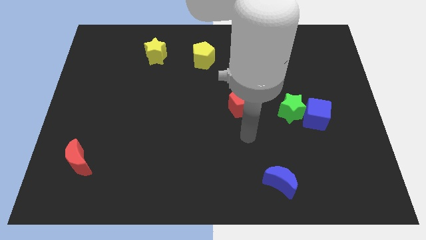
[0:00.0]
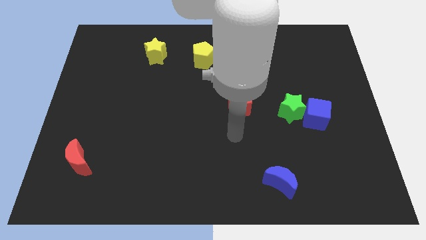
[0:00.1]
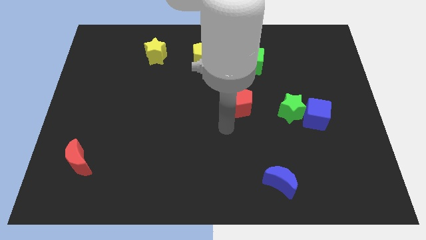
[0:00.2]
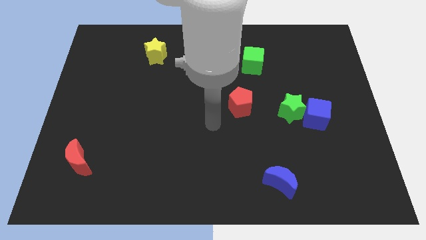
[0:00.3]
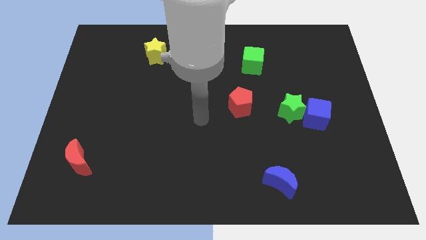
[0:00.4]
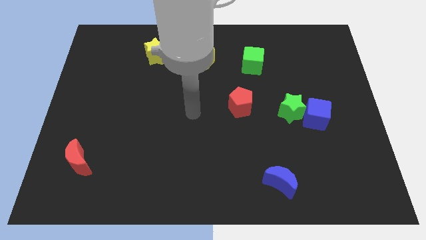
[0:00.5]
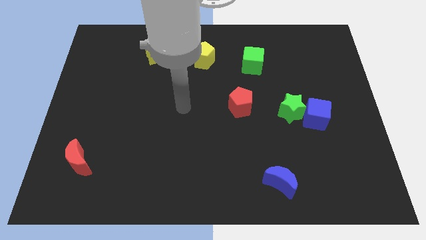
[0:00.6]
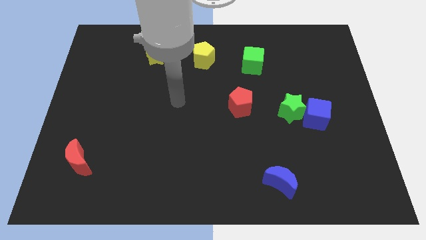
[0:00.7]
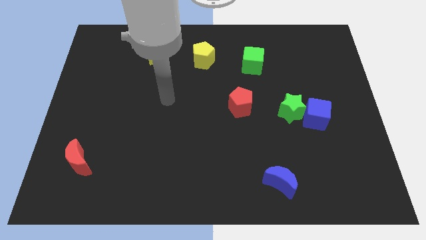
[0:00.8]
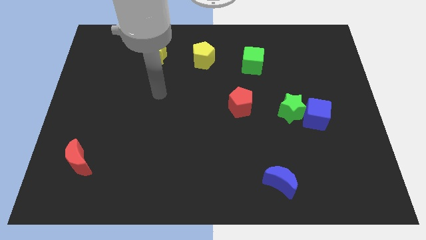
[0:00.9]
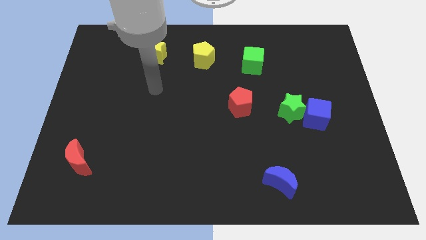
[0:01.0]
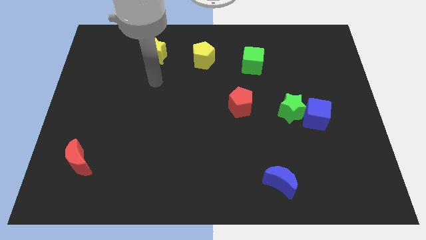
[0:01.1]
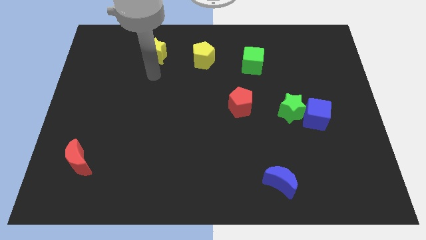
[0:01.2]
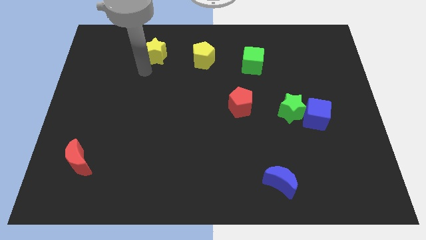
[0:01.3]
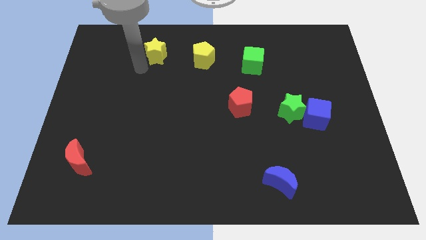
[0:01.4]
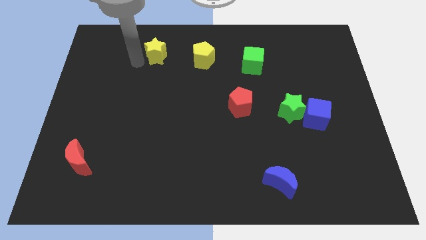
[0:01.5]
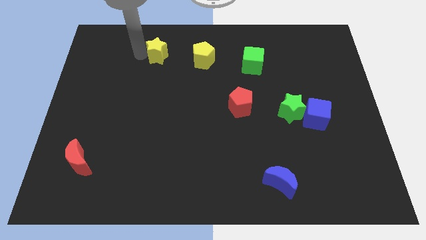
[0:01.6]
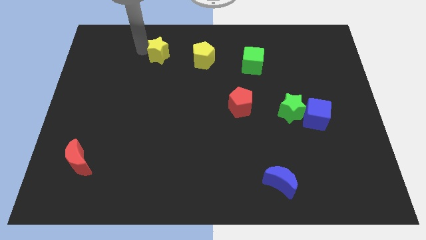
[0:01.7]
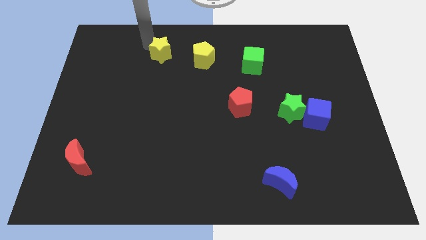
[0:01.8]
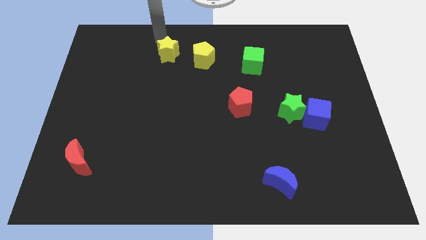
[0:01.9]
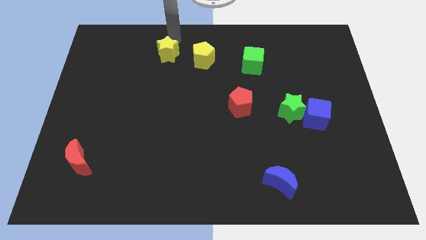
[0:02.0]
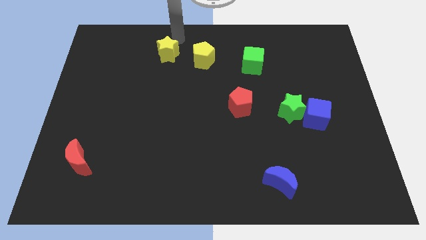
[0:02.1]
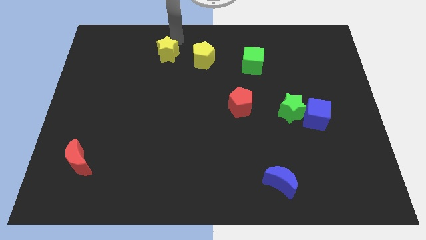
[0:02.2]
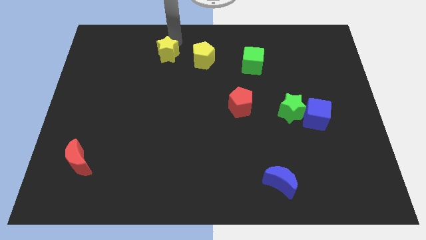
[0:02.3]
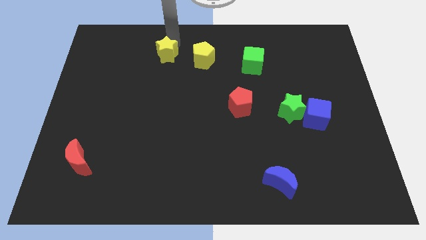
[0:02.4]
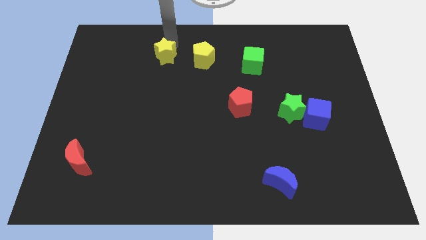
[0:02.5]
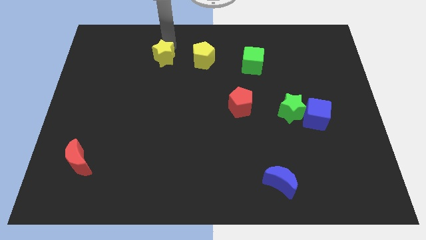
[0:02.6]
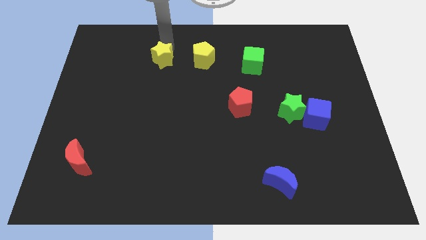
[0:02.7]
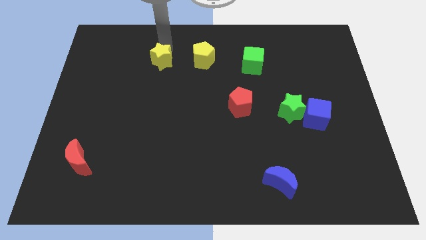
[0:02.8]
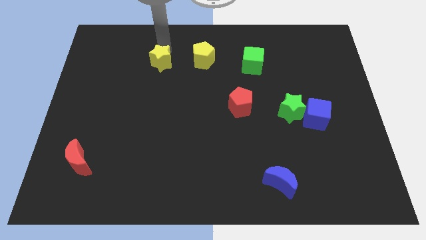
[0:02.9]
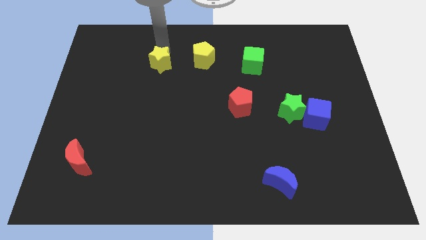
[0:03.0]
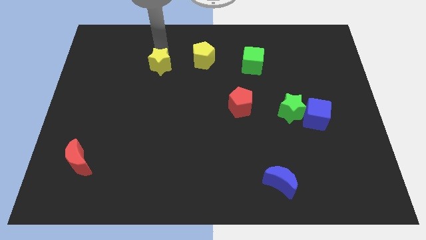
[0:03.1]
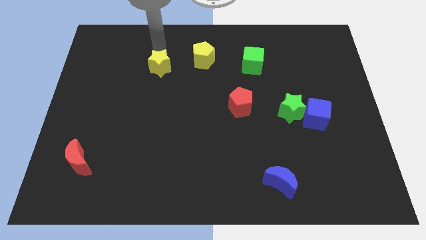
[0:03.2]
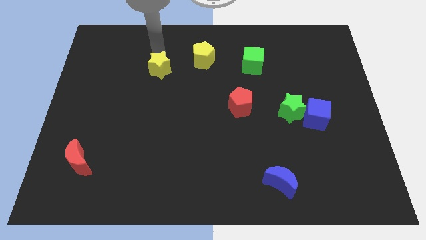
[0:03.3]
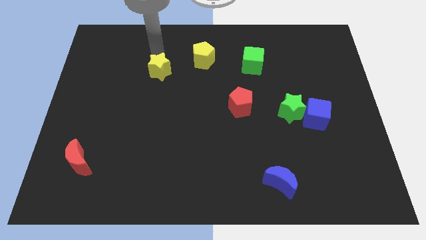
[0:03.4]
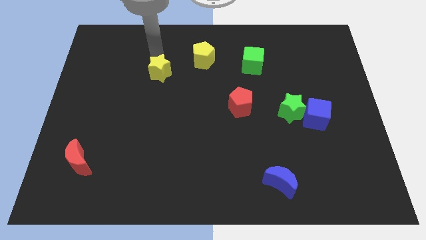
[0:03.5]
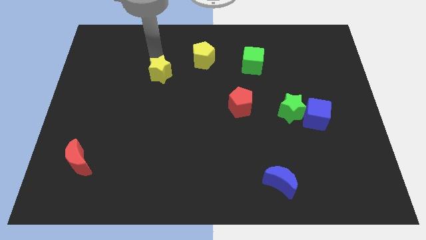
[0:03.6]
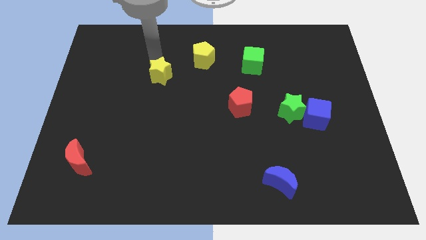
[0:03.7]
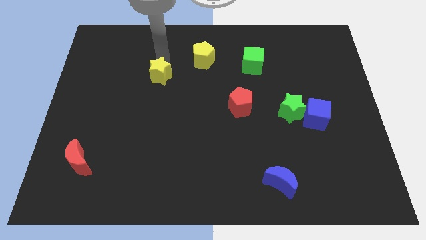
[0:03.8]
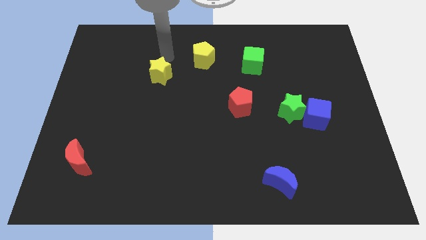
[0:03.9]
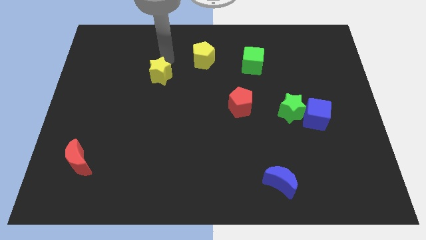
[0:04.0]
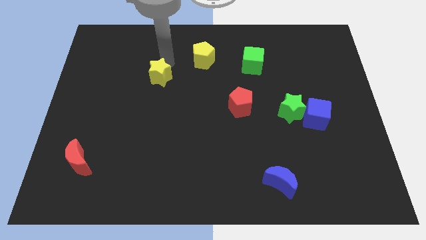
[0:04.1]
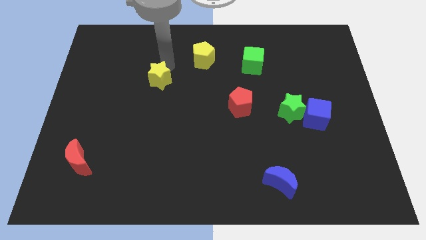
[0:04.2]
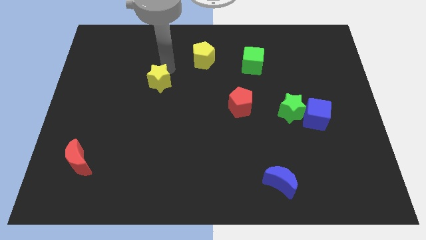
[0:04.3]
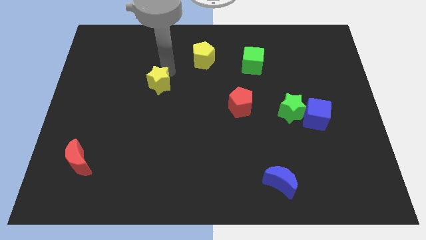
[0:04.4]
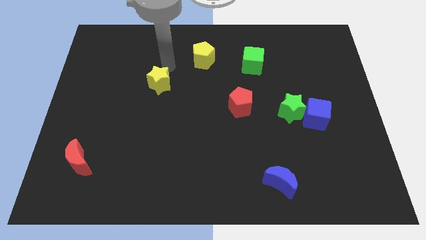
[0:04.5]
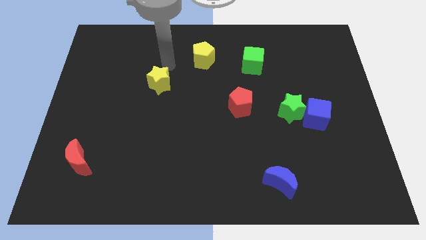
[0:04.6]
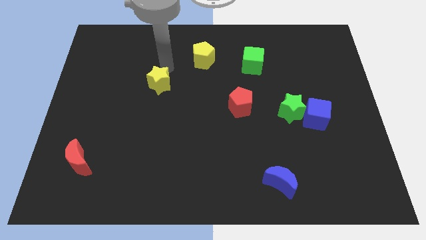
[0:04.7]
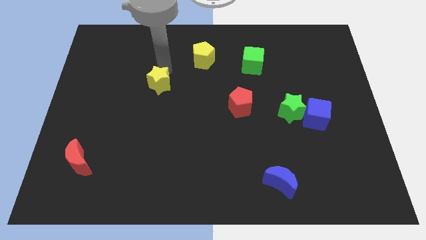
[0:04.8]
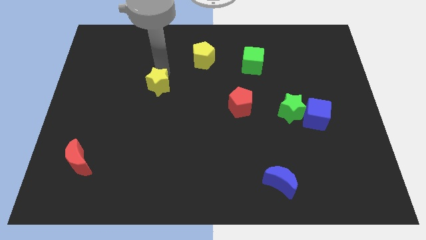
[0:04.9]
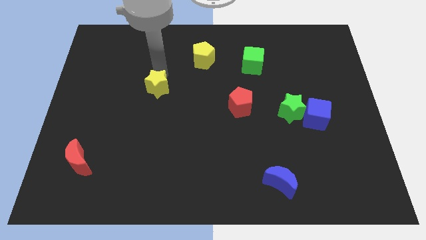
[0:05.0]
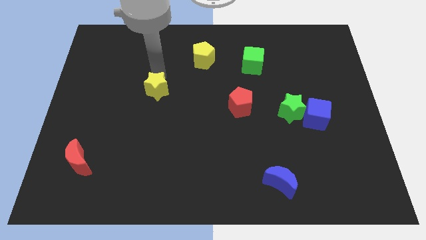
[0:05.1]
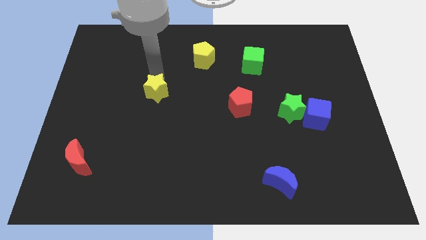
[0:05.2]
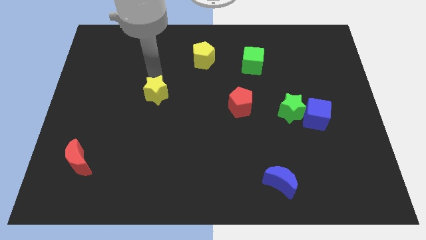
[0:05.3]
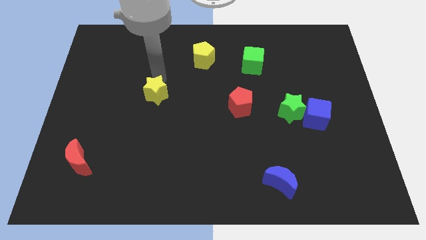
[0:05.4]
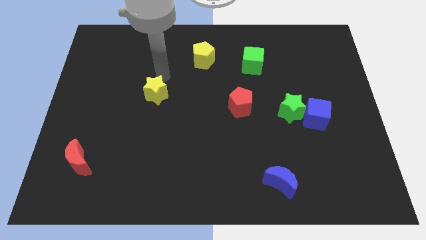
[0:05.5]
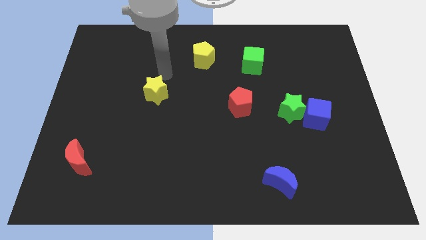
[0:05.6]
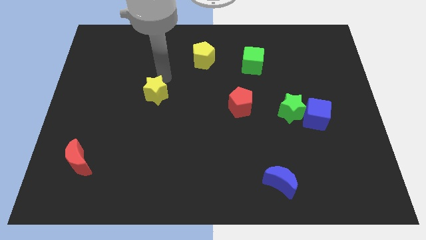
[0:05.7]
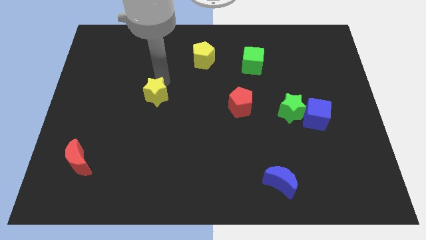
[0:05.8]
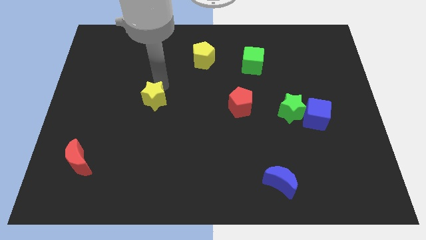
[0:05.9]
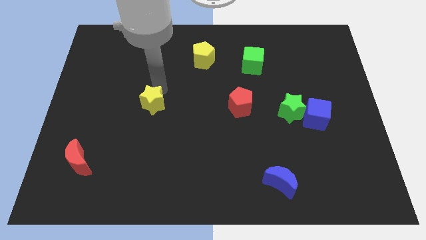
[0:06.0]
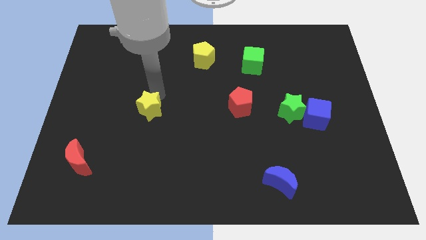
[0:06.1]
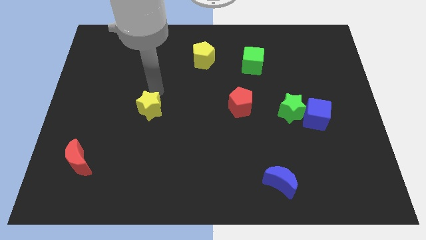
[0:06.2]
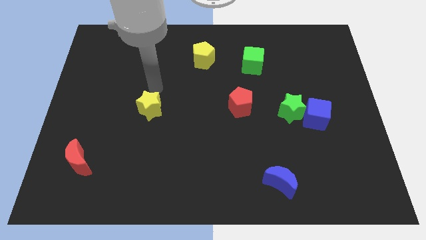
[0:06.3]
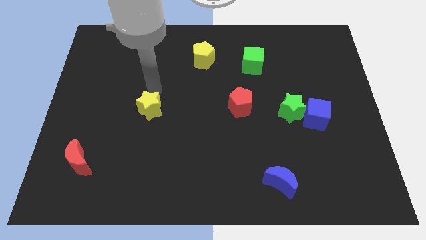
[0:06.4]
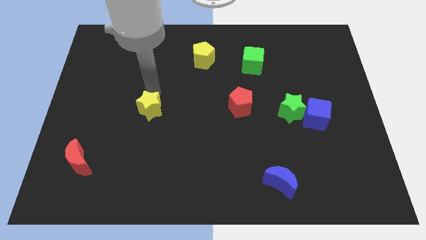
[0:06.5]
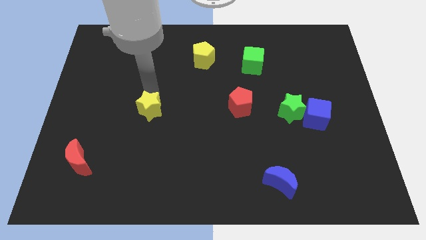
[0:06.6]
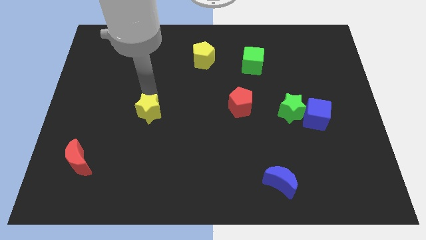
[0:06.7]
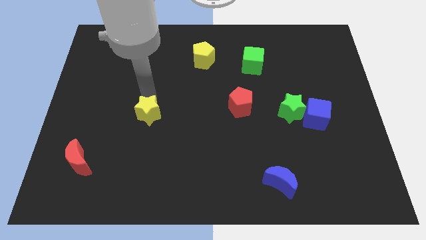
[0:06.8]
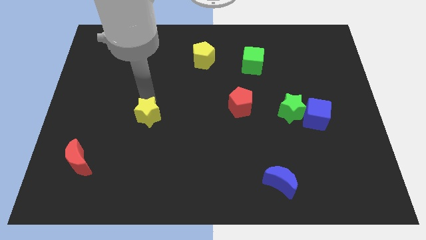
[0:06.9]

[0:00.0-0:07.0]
move the yellow star down

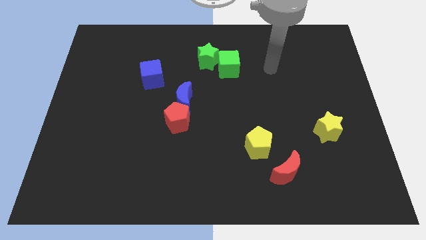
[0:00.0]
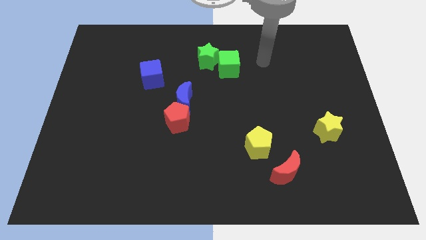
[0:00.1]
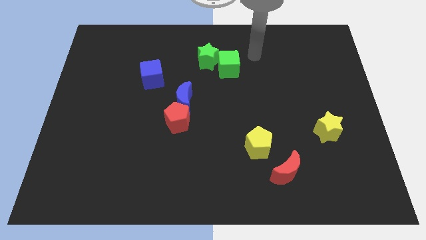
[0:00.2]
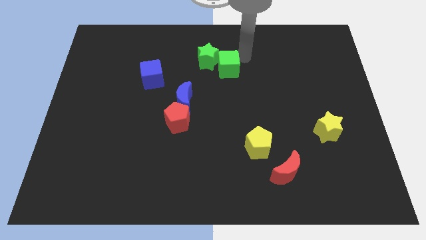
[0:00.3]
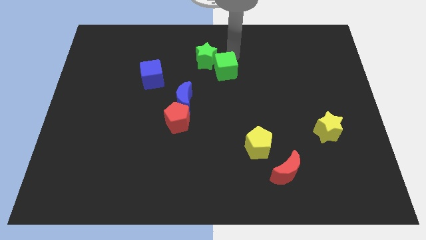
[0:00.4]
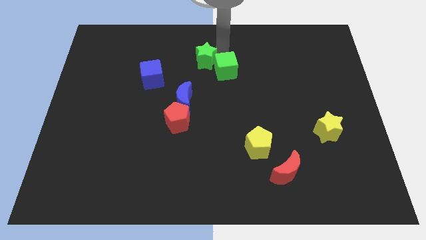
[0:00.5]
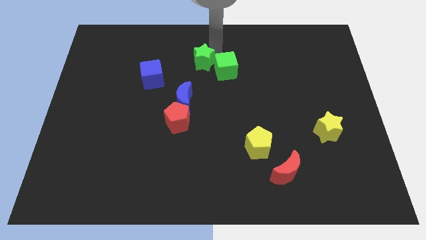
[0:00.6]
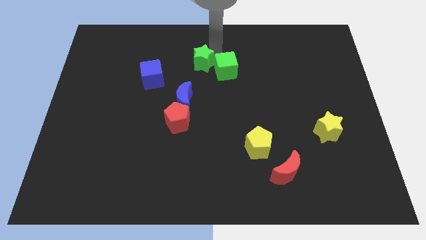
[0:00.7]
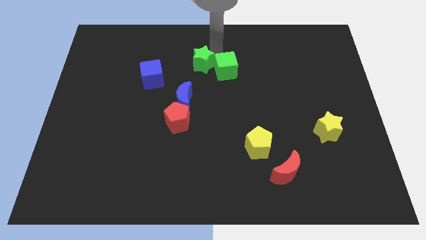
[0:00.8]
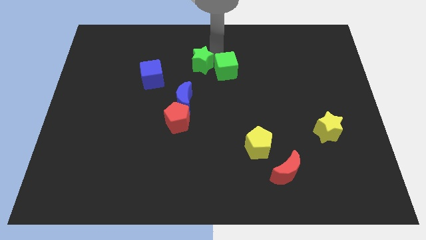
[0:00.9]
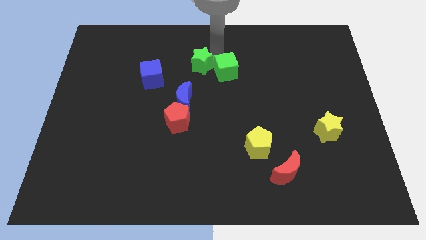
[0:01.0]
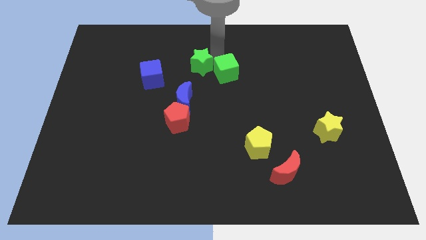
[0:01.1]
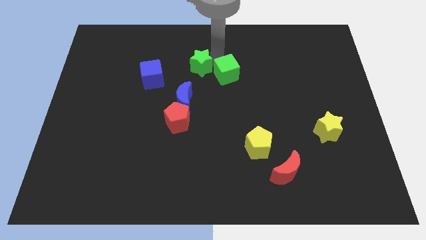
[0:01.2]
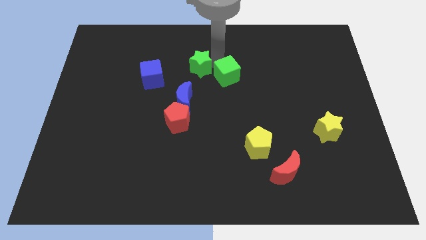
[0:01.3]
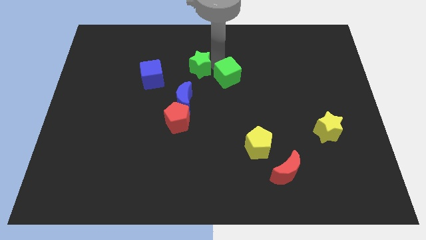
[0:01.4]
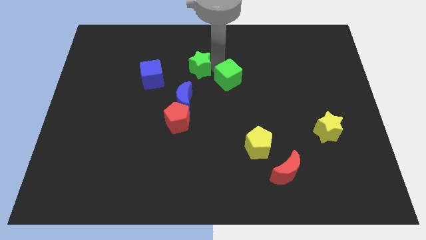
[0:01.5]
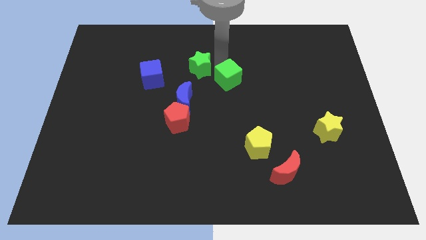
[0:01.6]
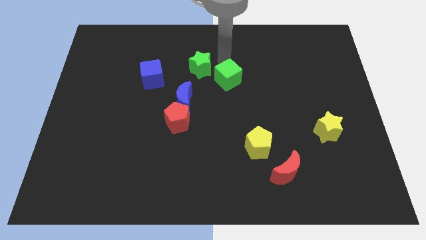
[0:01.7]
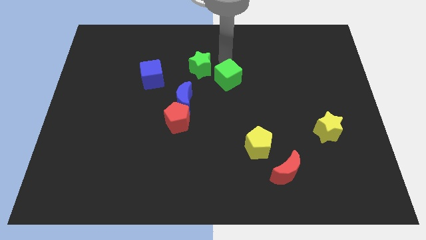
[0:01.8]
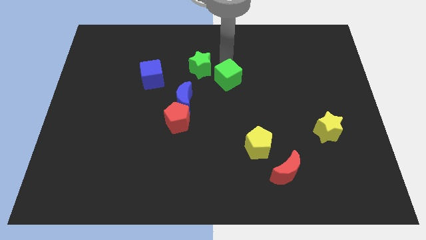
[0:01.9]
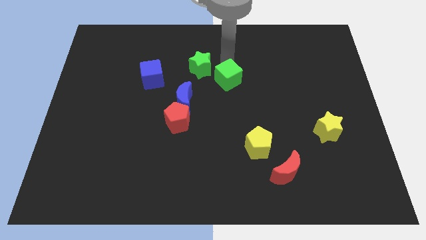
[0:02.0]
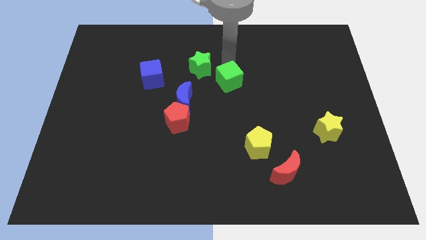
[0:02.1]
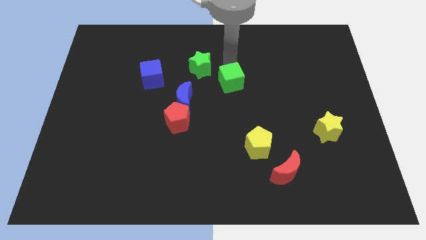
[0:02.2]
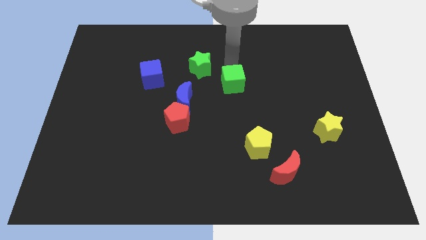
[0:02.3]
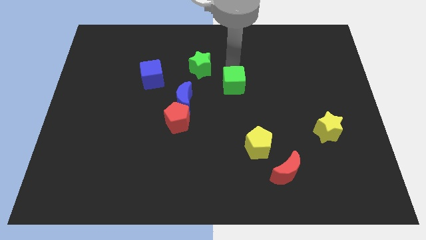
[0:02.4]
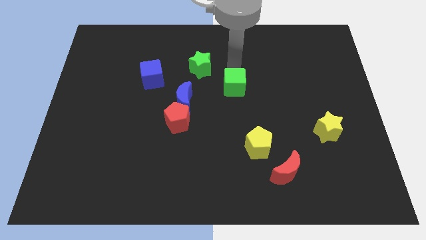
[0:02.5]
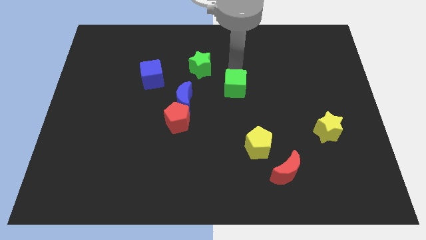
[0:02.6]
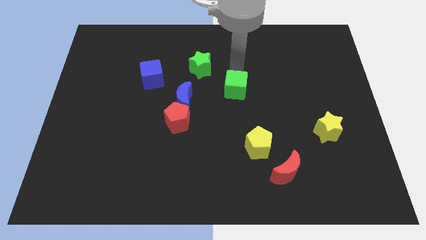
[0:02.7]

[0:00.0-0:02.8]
move the green cube downwards a little bit
